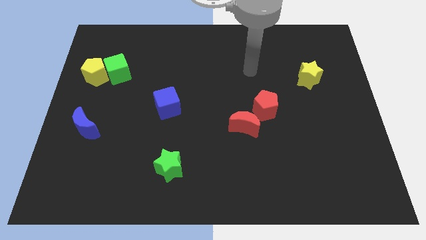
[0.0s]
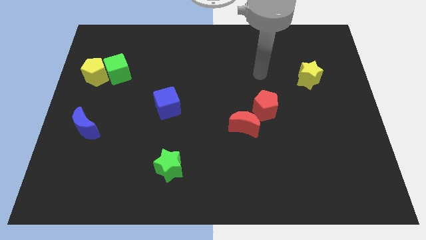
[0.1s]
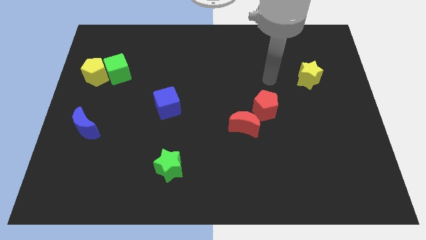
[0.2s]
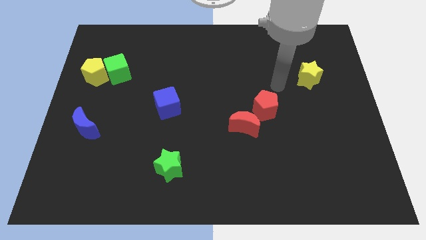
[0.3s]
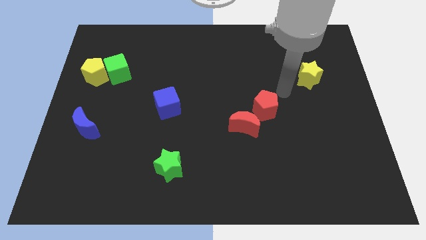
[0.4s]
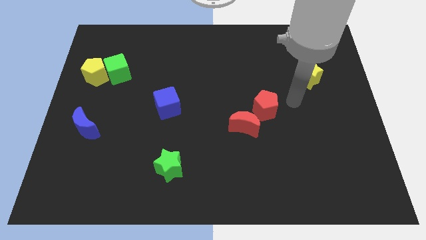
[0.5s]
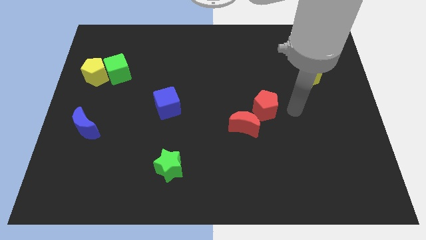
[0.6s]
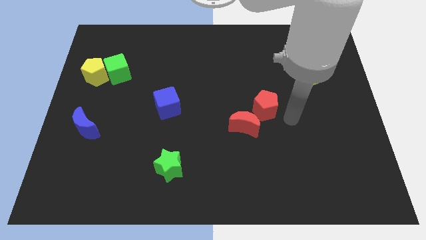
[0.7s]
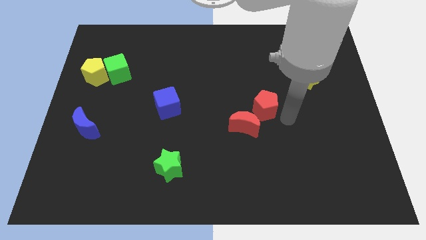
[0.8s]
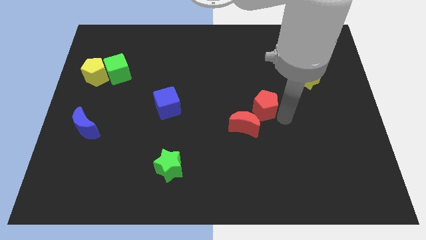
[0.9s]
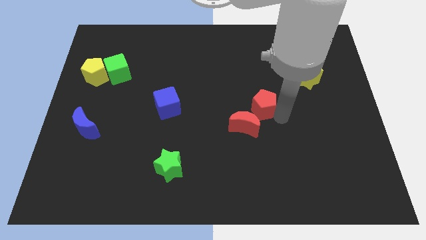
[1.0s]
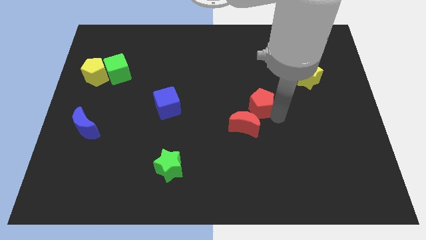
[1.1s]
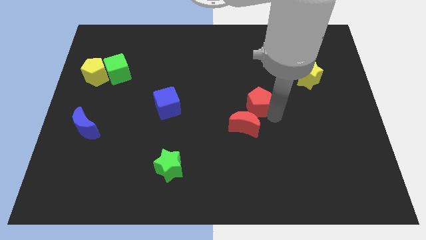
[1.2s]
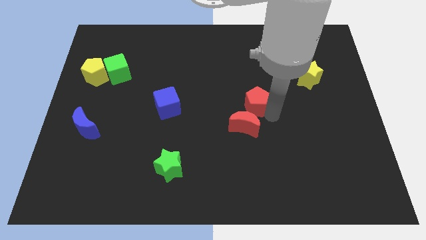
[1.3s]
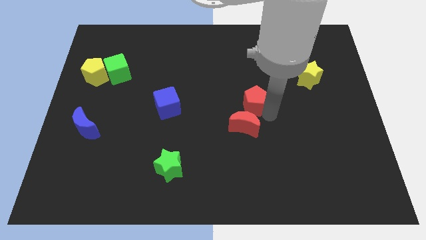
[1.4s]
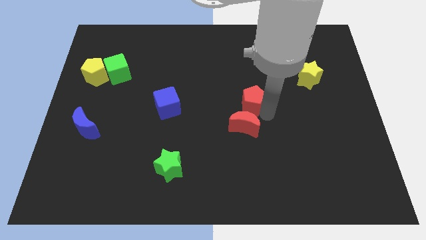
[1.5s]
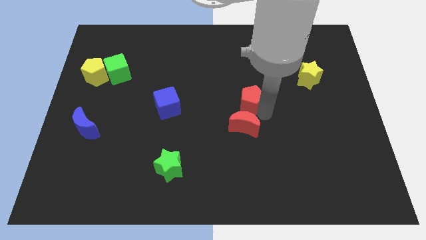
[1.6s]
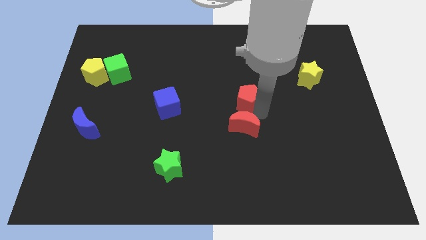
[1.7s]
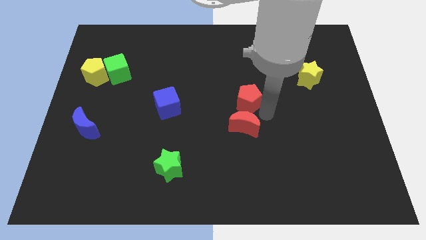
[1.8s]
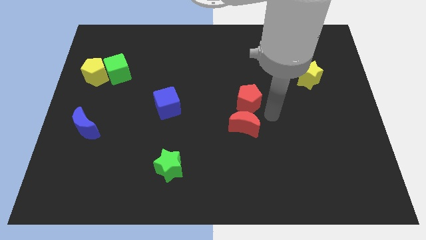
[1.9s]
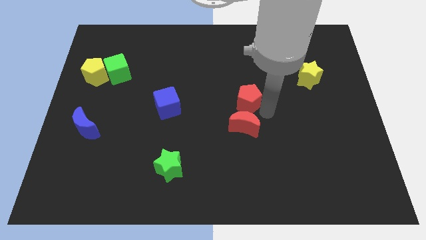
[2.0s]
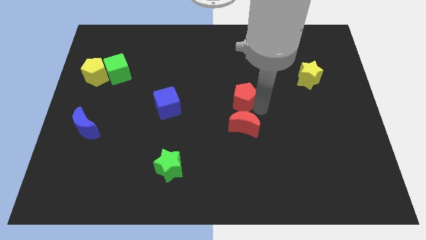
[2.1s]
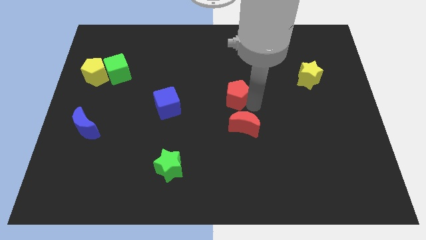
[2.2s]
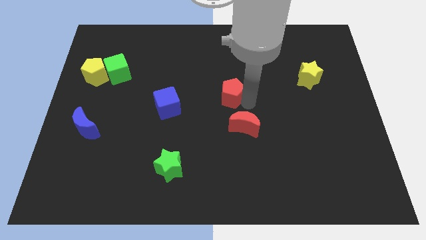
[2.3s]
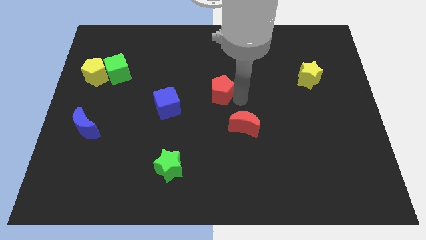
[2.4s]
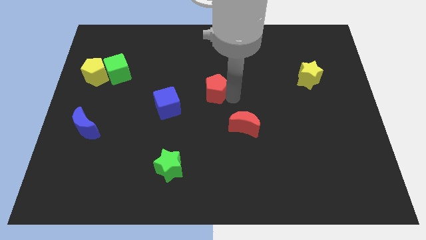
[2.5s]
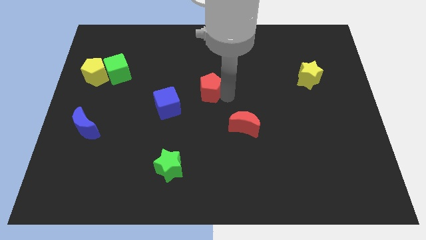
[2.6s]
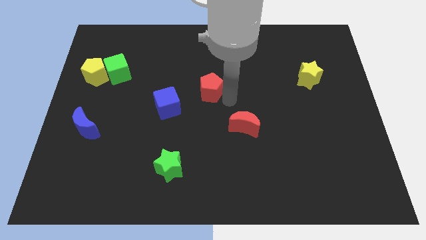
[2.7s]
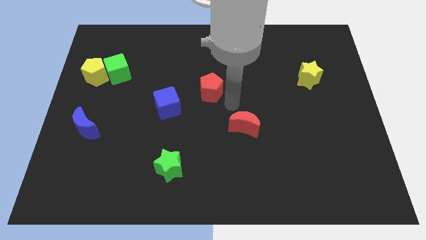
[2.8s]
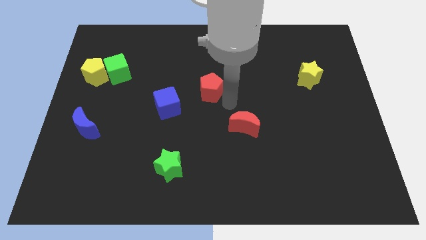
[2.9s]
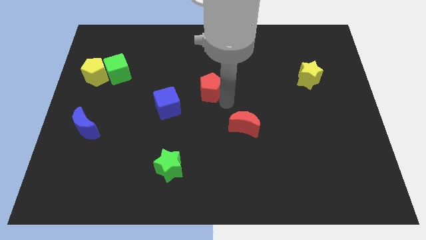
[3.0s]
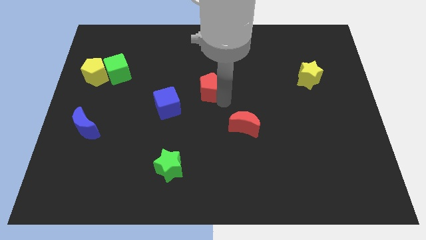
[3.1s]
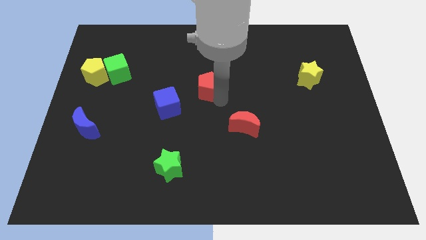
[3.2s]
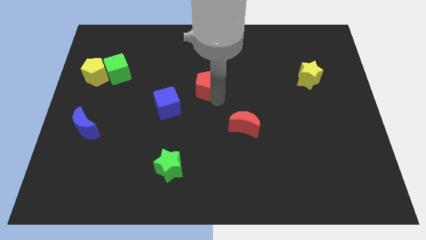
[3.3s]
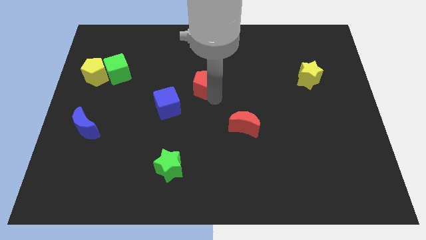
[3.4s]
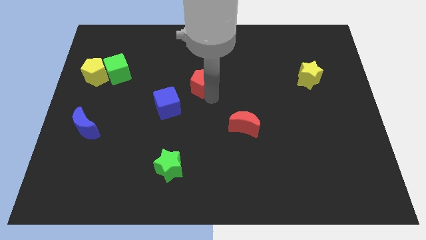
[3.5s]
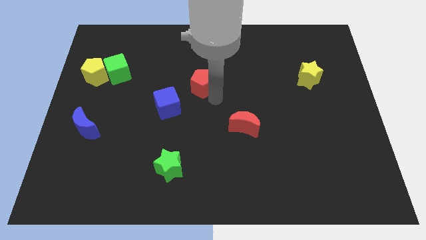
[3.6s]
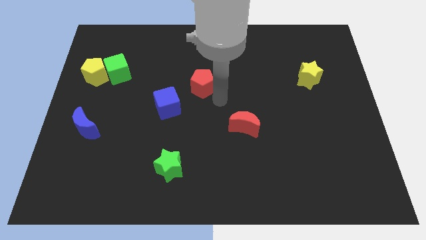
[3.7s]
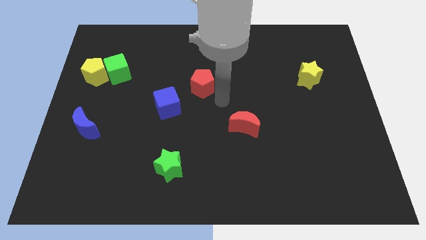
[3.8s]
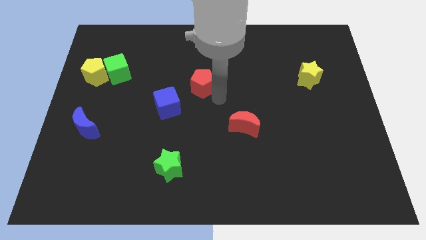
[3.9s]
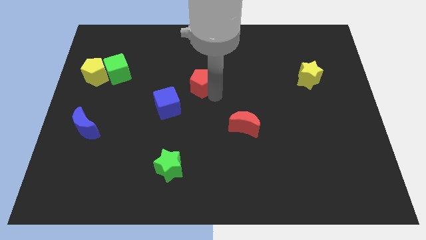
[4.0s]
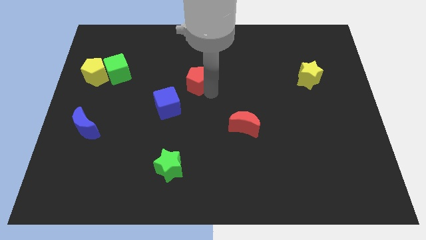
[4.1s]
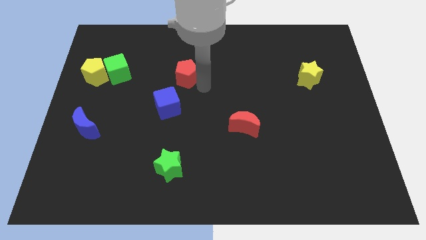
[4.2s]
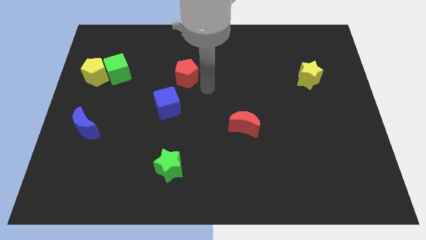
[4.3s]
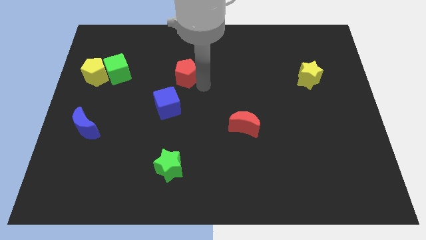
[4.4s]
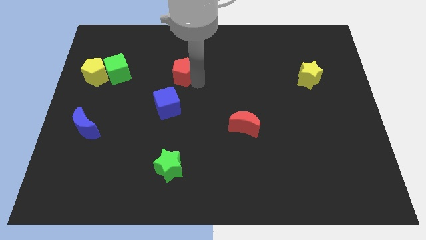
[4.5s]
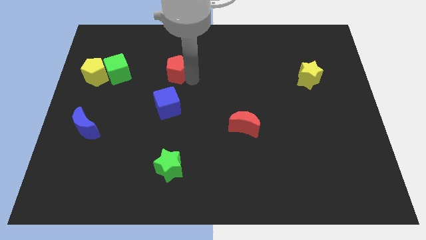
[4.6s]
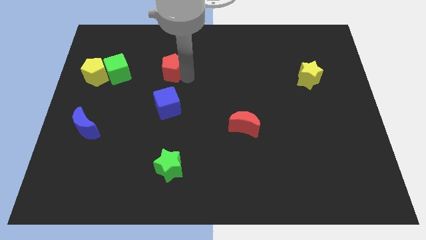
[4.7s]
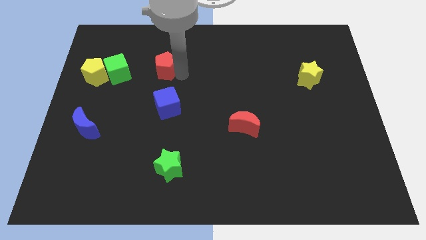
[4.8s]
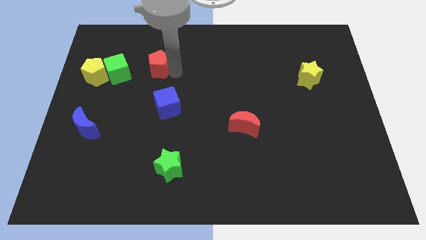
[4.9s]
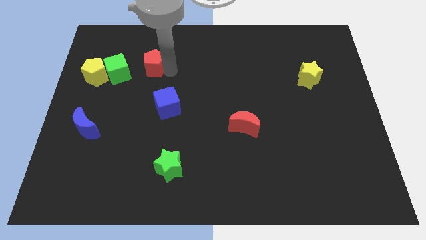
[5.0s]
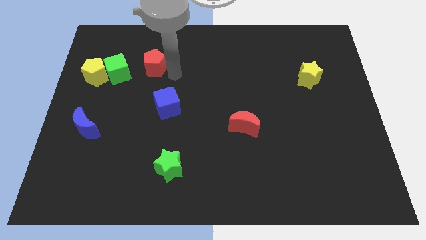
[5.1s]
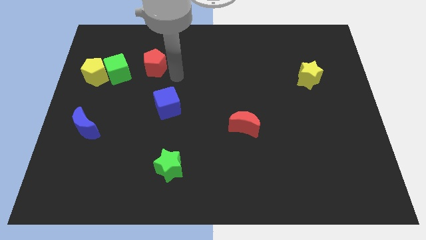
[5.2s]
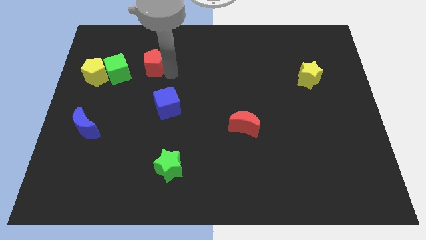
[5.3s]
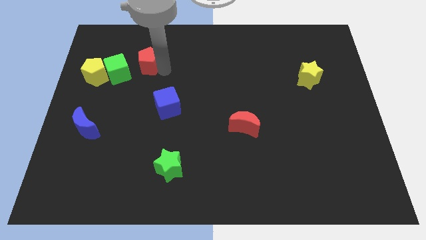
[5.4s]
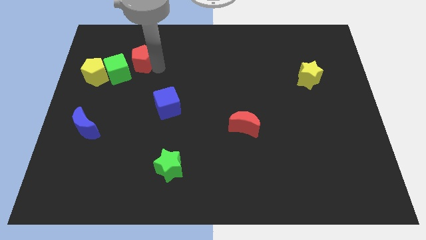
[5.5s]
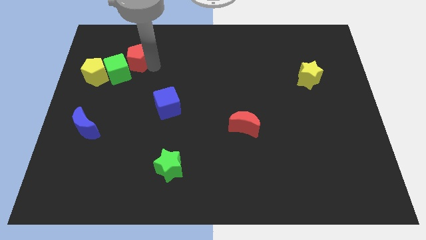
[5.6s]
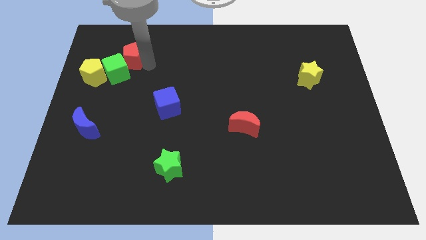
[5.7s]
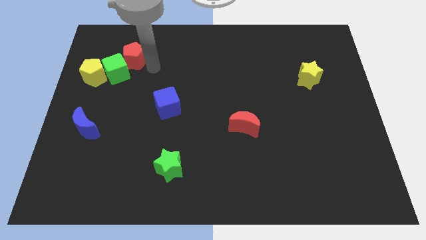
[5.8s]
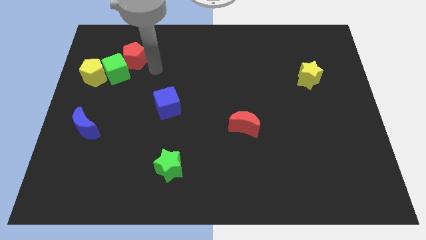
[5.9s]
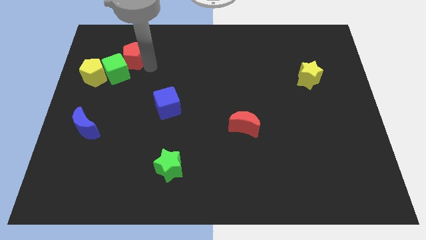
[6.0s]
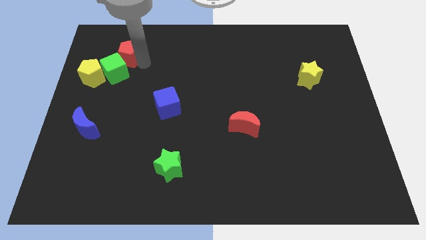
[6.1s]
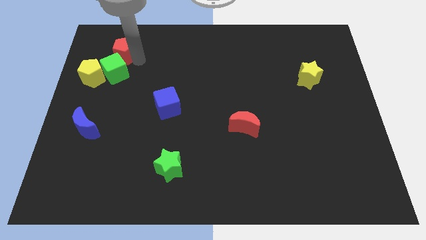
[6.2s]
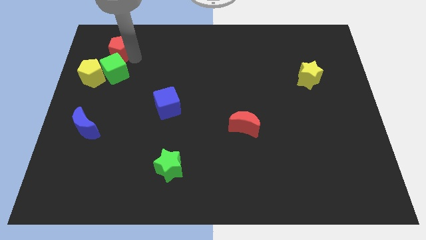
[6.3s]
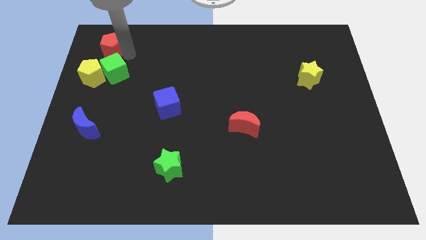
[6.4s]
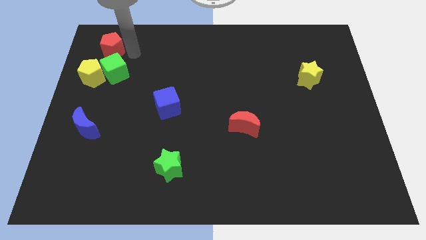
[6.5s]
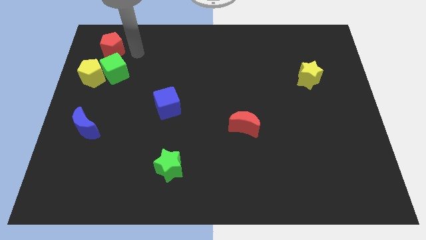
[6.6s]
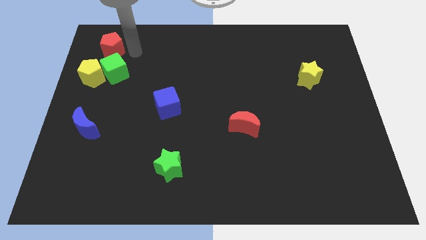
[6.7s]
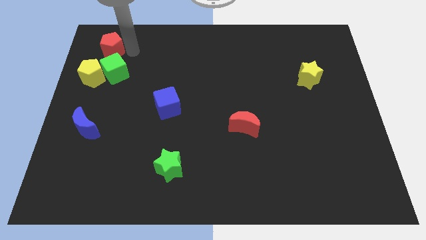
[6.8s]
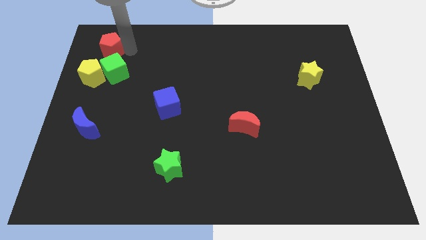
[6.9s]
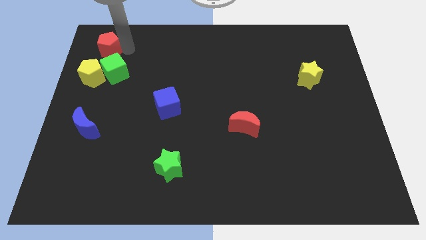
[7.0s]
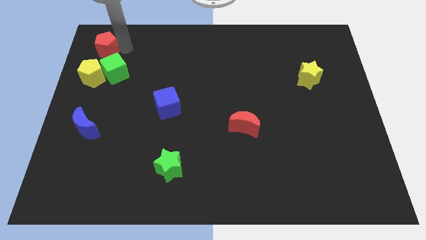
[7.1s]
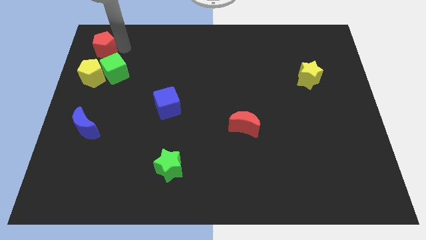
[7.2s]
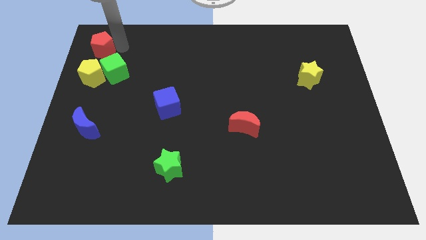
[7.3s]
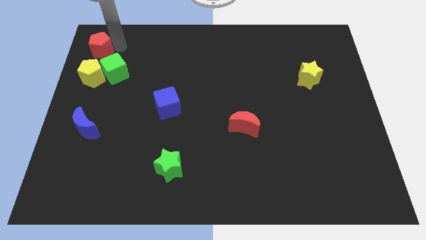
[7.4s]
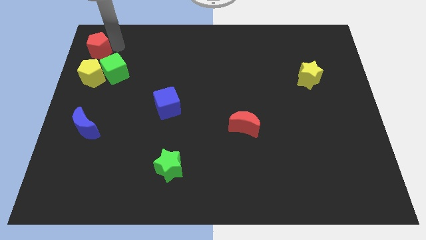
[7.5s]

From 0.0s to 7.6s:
slide the red pentagon to the top left
